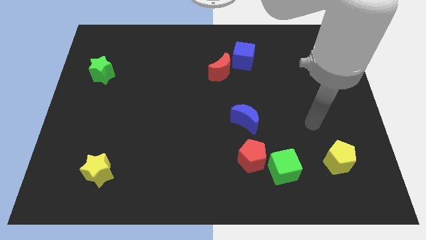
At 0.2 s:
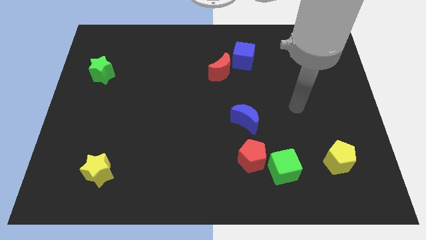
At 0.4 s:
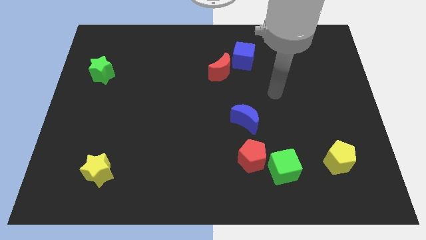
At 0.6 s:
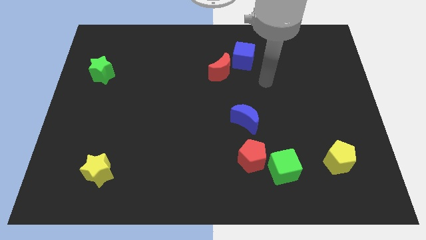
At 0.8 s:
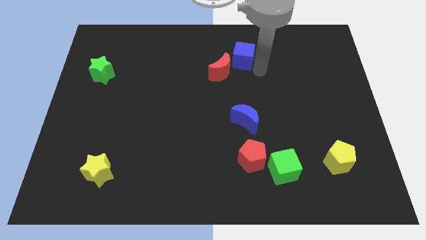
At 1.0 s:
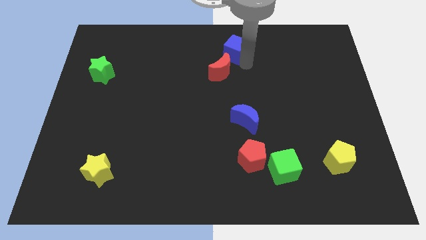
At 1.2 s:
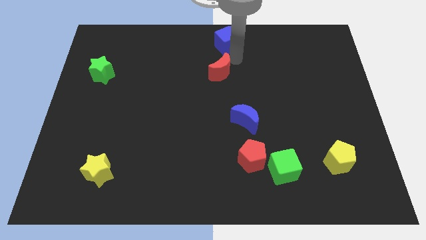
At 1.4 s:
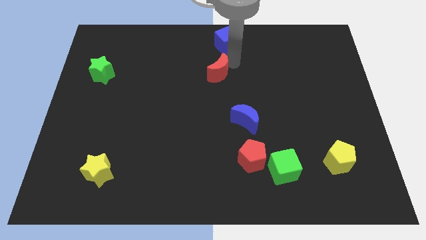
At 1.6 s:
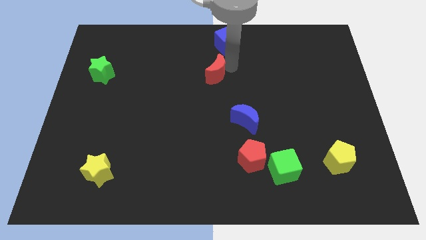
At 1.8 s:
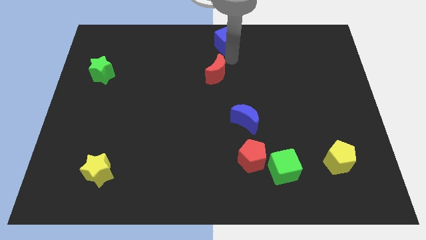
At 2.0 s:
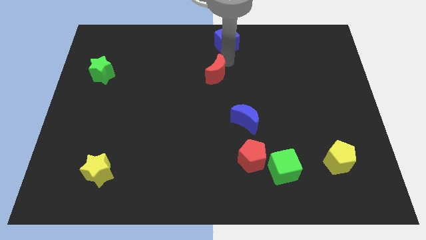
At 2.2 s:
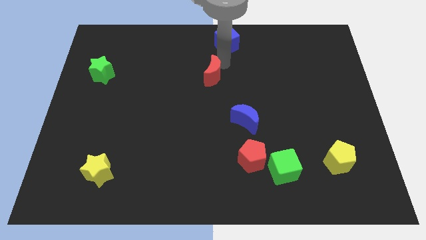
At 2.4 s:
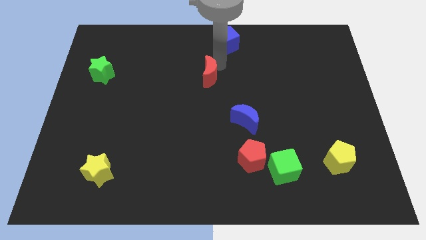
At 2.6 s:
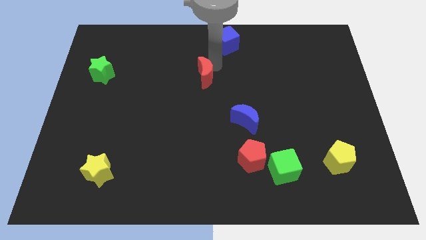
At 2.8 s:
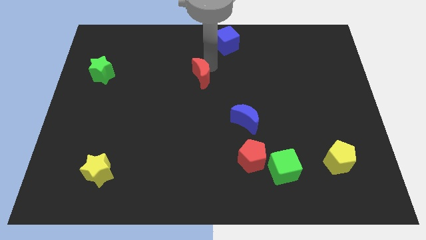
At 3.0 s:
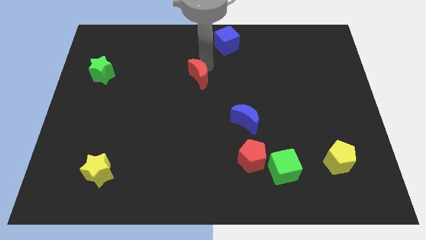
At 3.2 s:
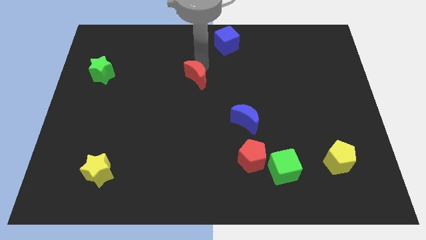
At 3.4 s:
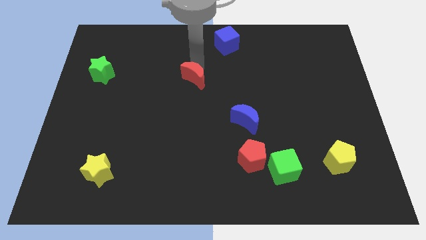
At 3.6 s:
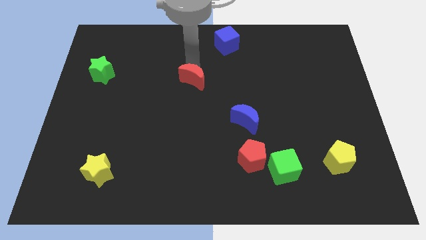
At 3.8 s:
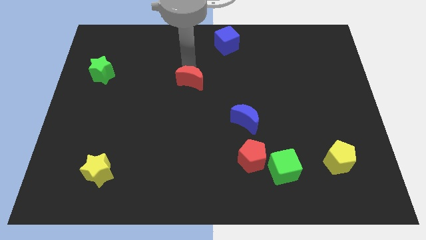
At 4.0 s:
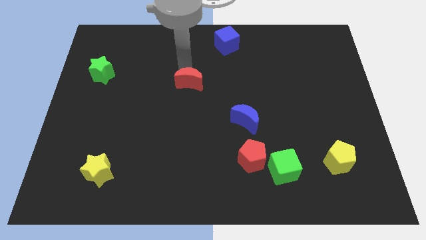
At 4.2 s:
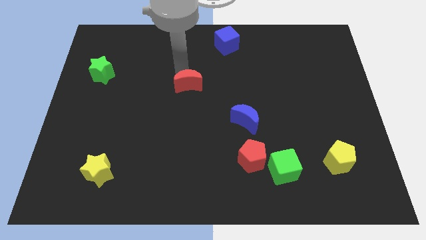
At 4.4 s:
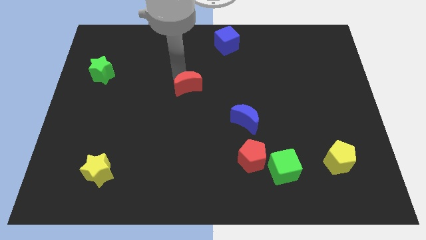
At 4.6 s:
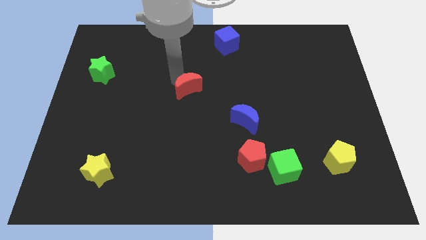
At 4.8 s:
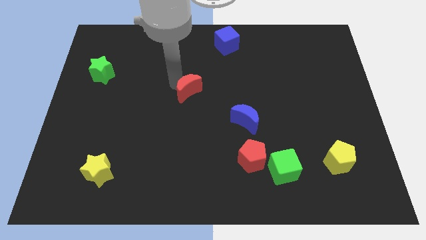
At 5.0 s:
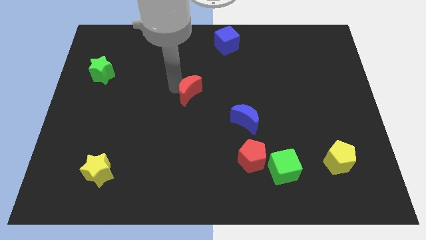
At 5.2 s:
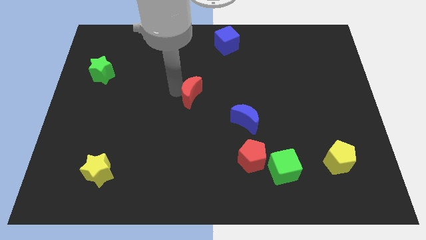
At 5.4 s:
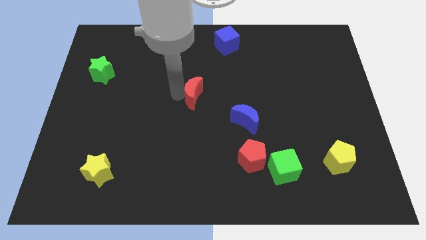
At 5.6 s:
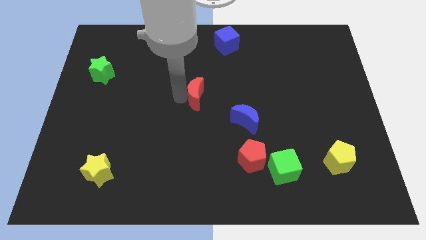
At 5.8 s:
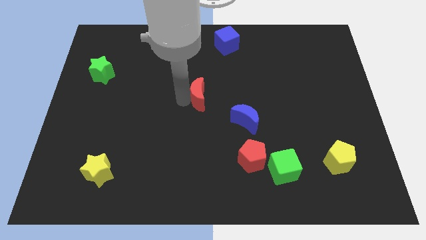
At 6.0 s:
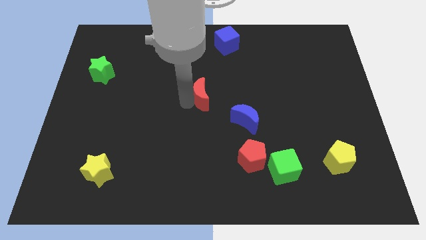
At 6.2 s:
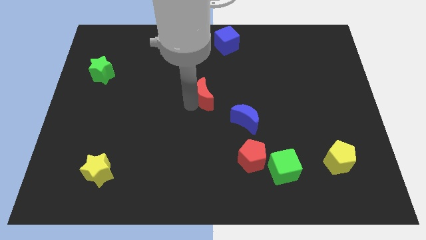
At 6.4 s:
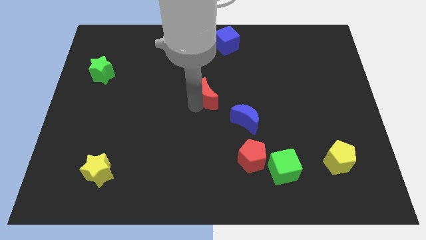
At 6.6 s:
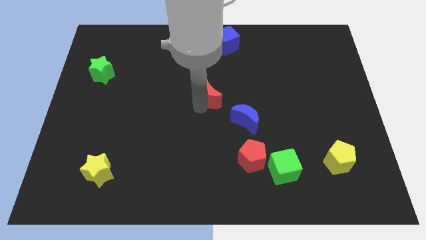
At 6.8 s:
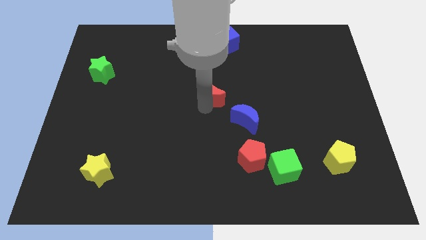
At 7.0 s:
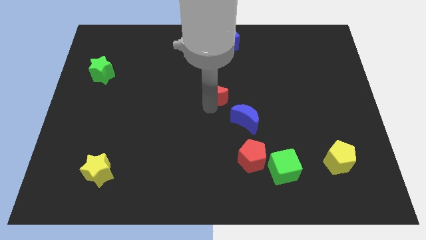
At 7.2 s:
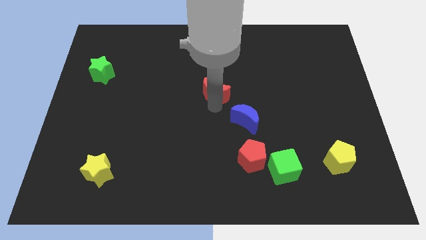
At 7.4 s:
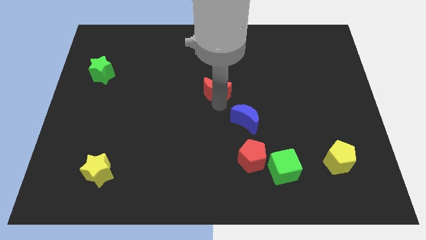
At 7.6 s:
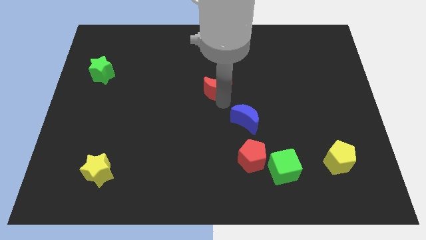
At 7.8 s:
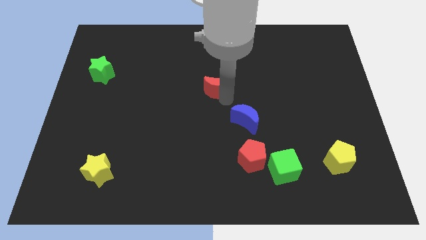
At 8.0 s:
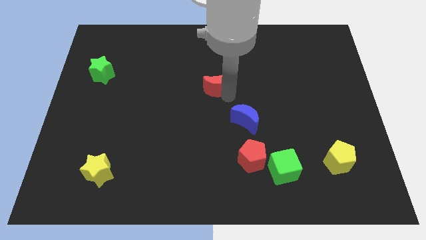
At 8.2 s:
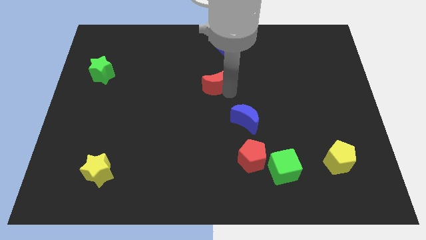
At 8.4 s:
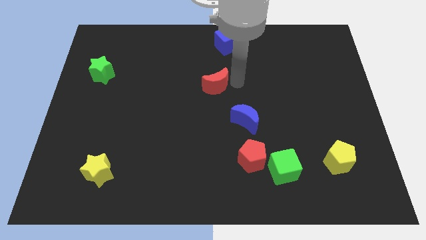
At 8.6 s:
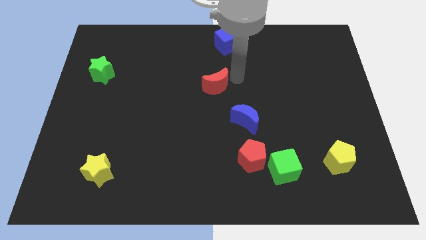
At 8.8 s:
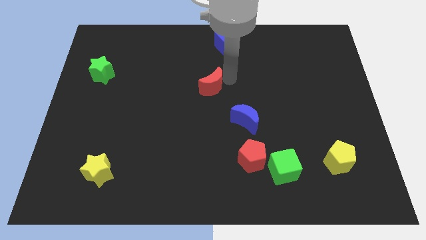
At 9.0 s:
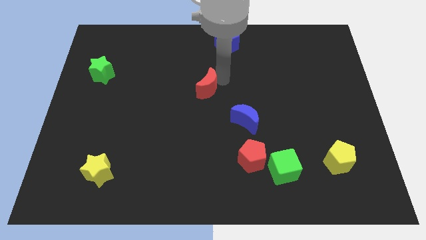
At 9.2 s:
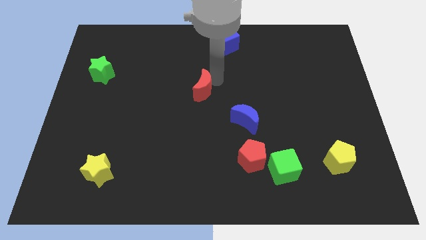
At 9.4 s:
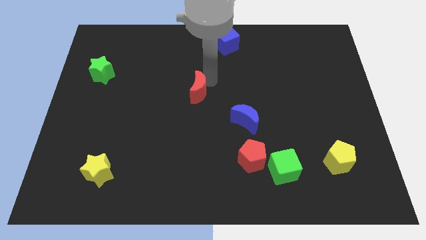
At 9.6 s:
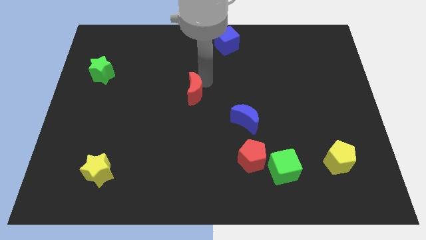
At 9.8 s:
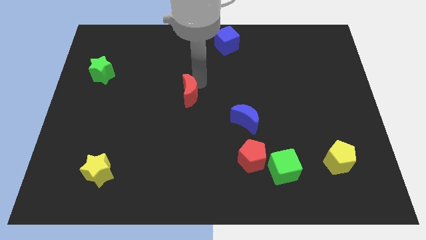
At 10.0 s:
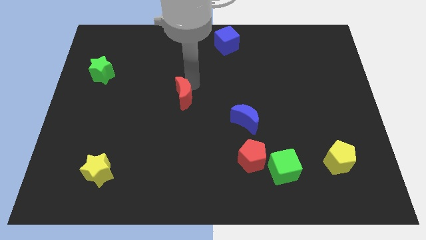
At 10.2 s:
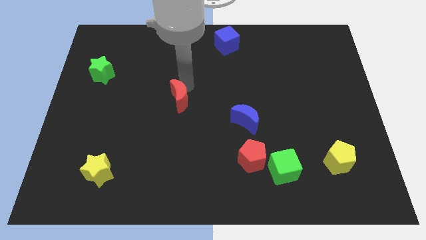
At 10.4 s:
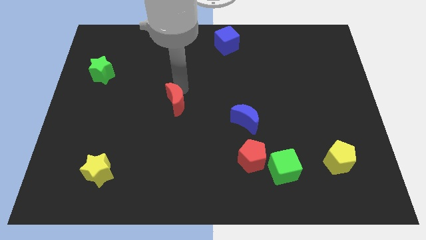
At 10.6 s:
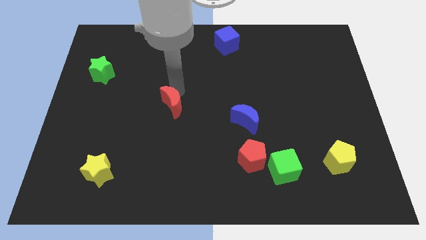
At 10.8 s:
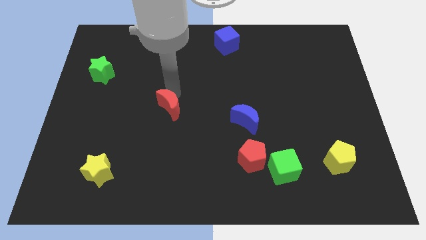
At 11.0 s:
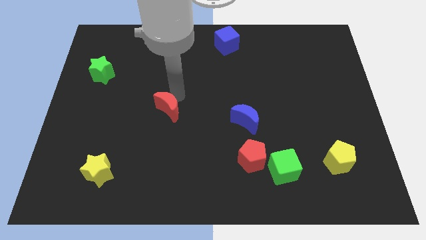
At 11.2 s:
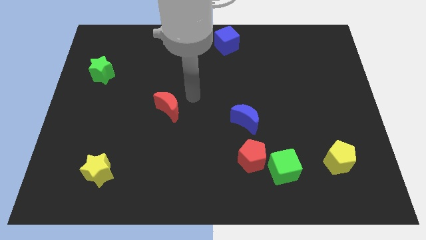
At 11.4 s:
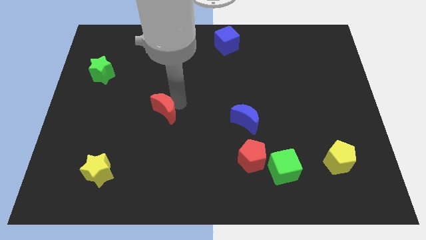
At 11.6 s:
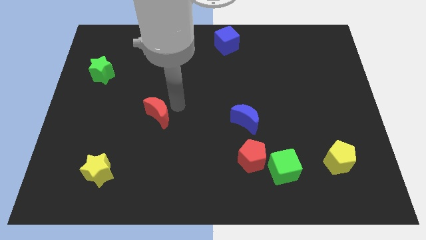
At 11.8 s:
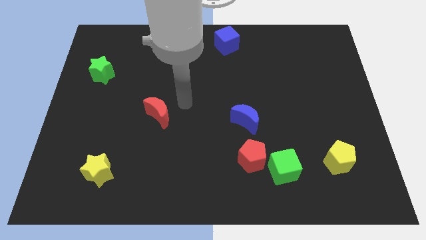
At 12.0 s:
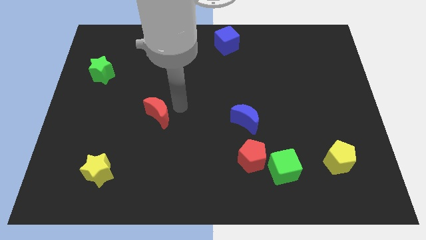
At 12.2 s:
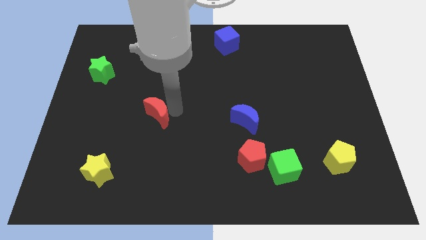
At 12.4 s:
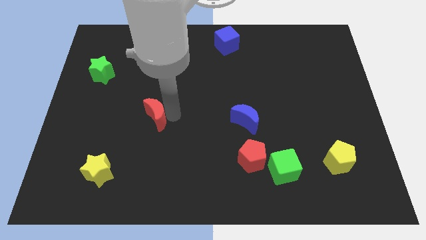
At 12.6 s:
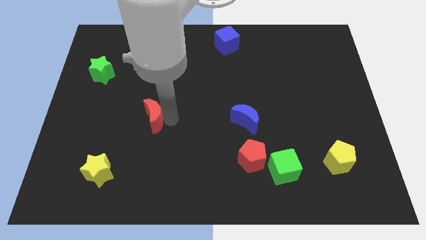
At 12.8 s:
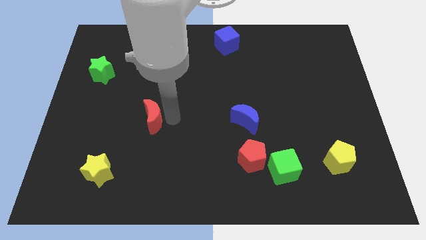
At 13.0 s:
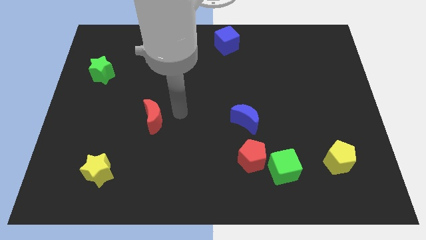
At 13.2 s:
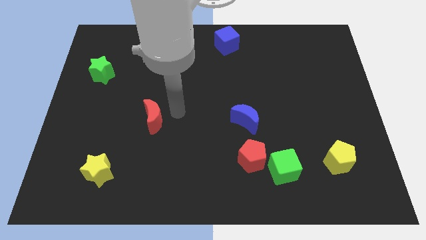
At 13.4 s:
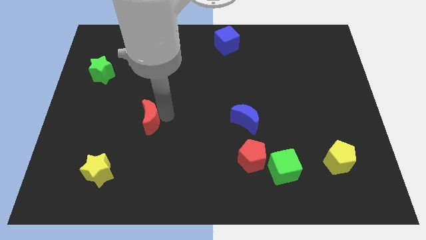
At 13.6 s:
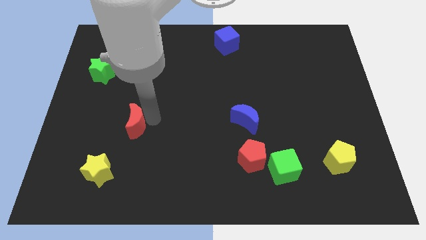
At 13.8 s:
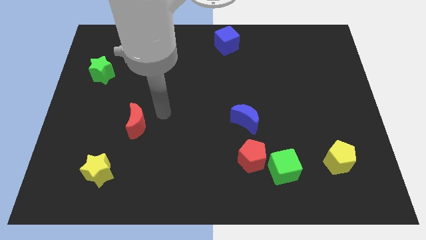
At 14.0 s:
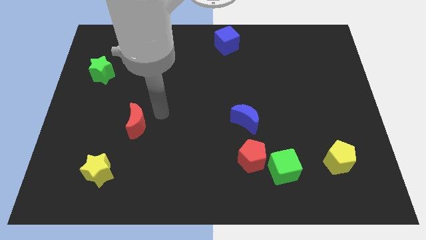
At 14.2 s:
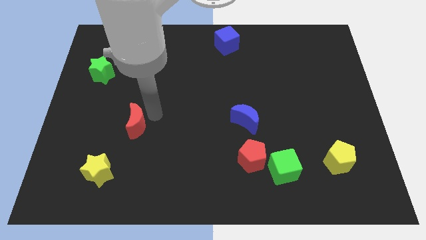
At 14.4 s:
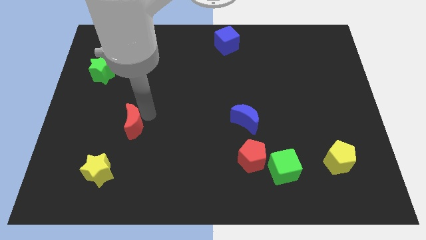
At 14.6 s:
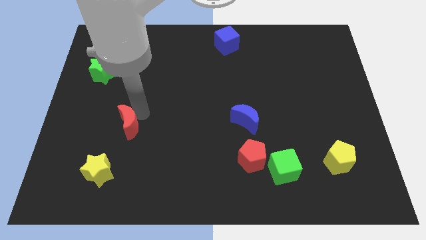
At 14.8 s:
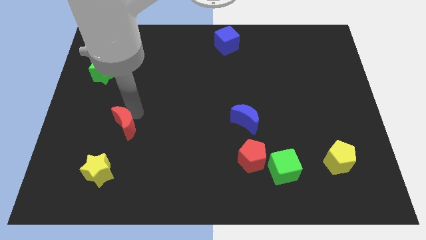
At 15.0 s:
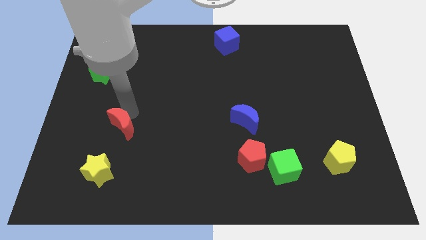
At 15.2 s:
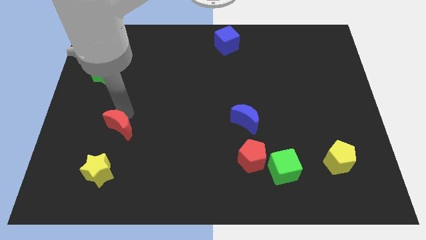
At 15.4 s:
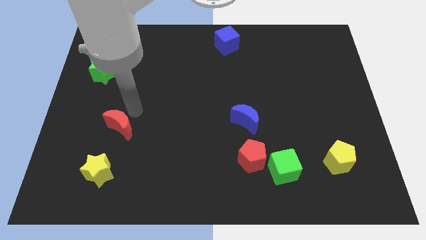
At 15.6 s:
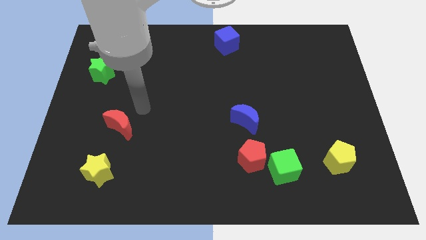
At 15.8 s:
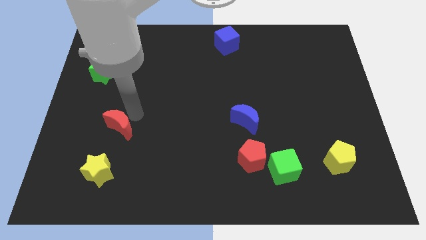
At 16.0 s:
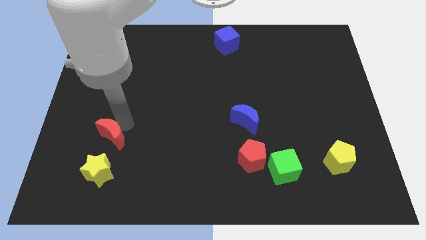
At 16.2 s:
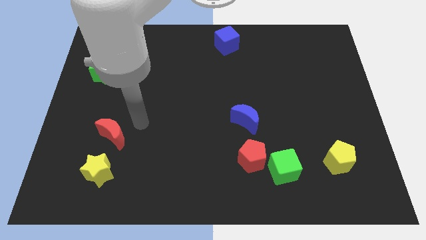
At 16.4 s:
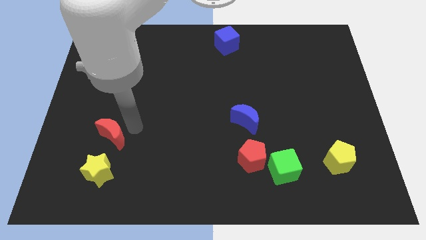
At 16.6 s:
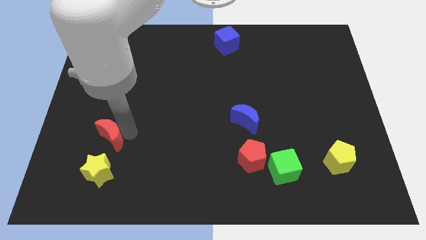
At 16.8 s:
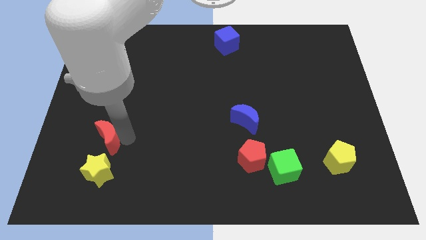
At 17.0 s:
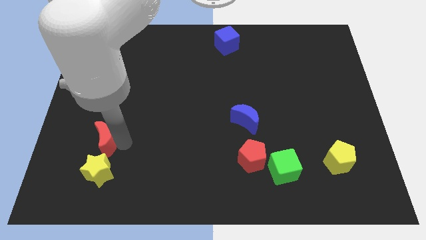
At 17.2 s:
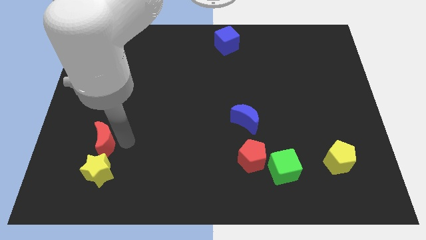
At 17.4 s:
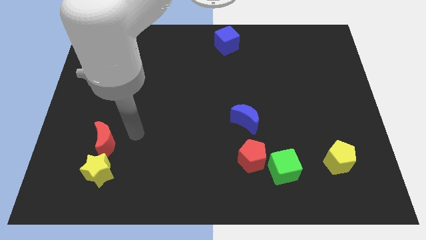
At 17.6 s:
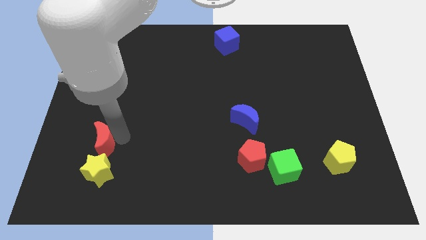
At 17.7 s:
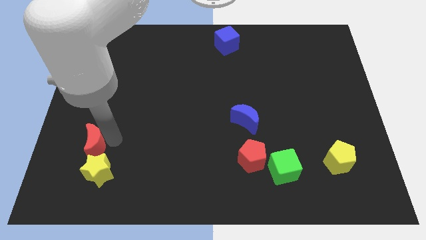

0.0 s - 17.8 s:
slide the red moon to the top left of the yellow star
